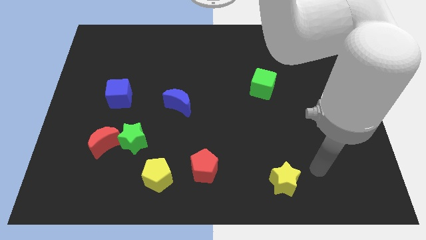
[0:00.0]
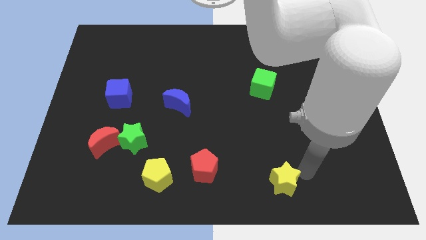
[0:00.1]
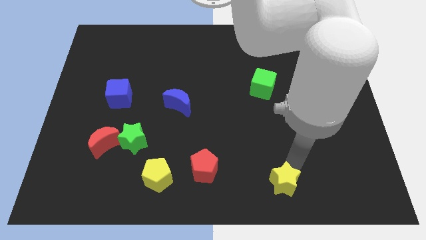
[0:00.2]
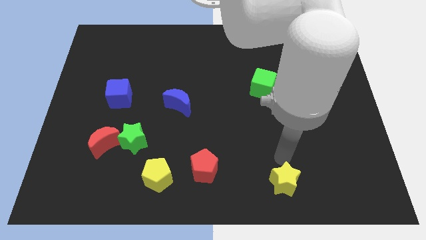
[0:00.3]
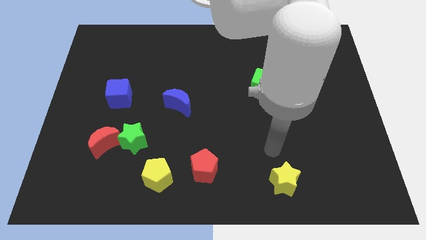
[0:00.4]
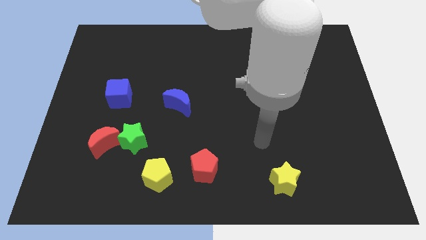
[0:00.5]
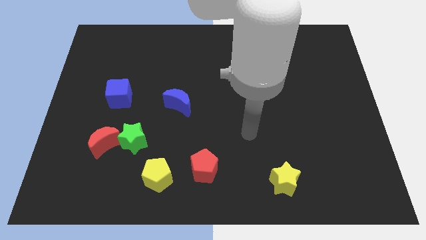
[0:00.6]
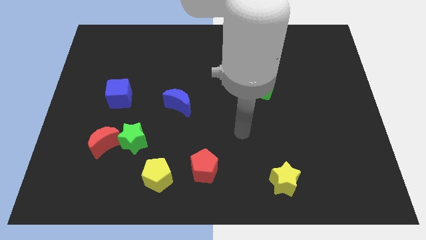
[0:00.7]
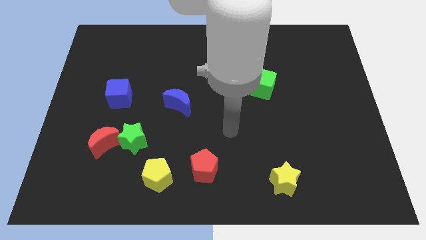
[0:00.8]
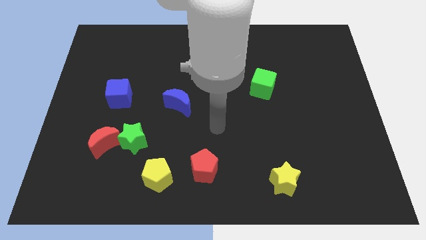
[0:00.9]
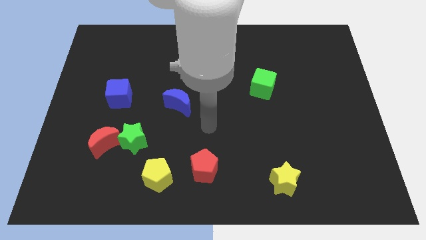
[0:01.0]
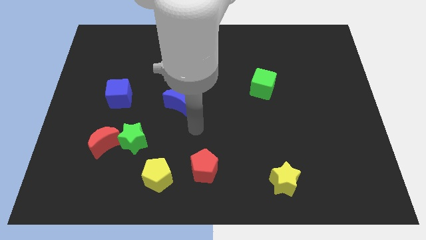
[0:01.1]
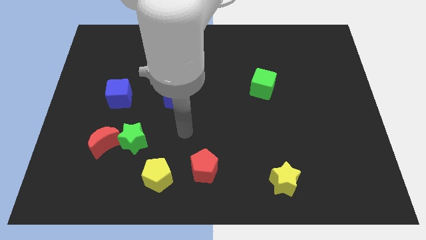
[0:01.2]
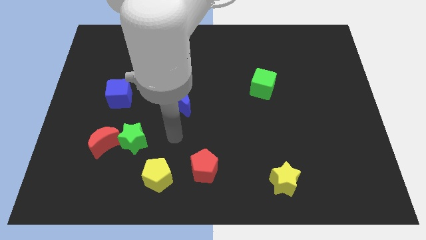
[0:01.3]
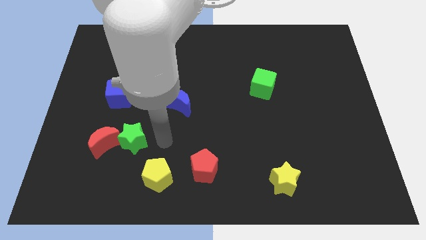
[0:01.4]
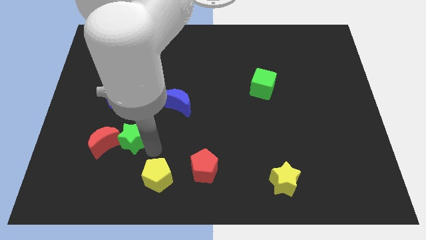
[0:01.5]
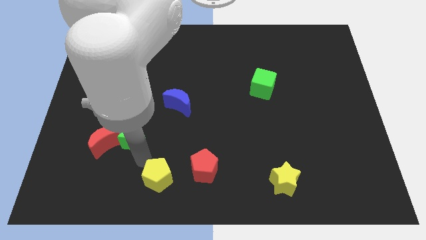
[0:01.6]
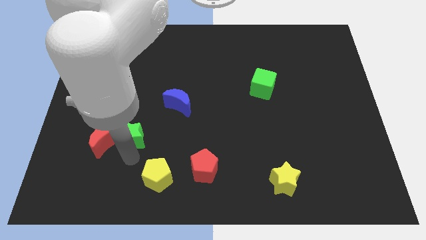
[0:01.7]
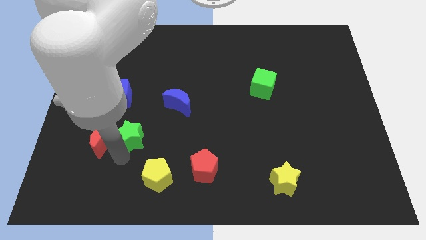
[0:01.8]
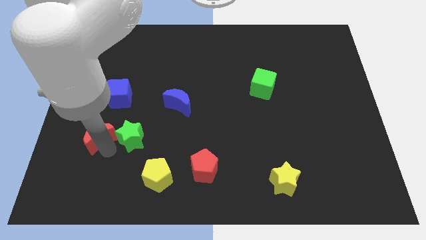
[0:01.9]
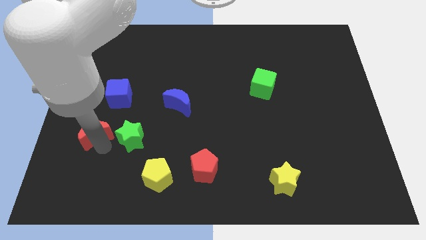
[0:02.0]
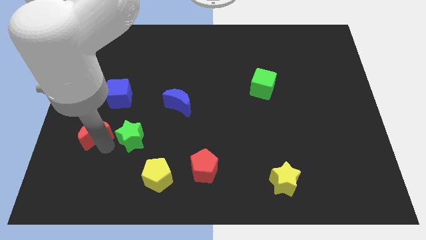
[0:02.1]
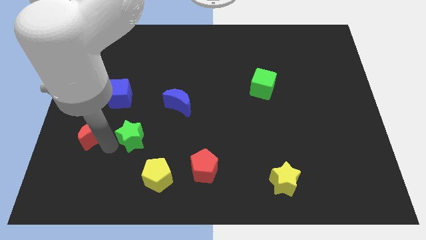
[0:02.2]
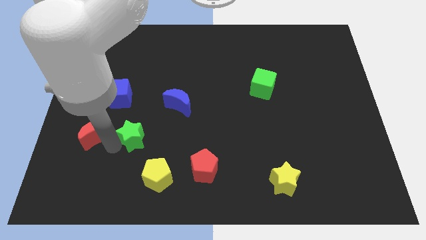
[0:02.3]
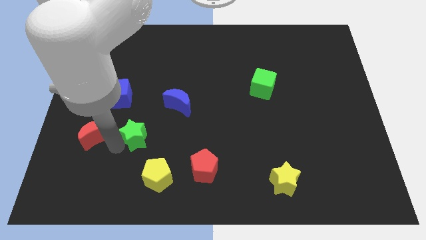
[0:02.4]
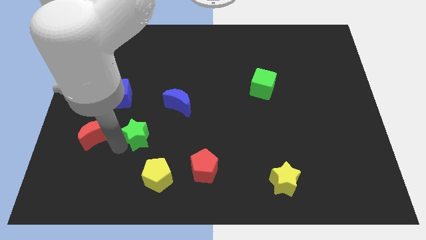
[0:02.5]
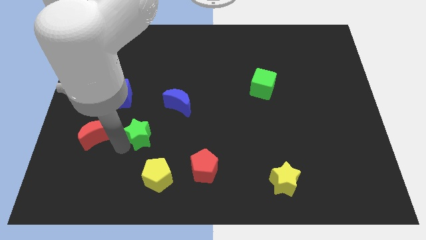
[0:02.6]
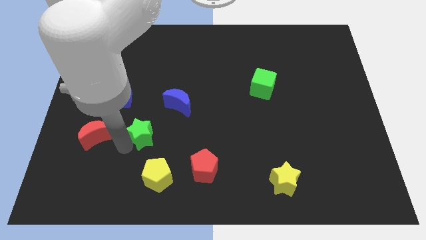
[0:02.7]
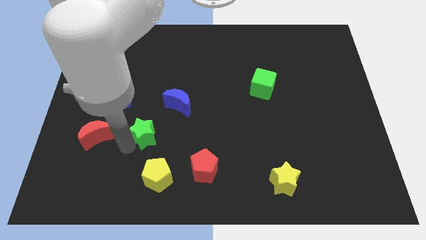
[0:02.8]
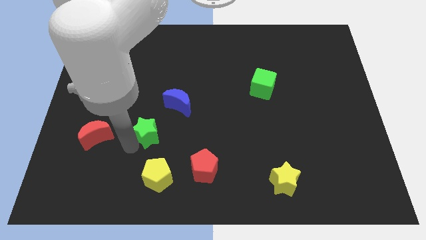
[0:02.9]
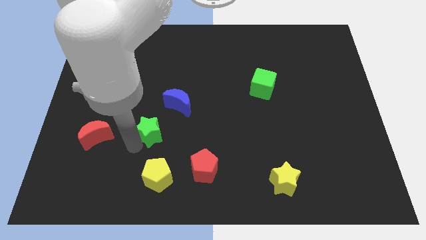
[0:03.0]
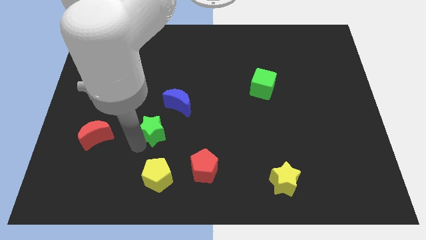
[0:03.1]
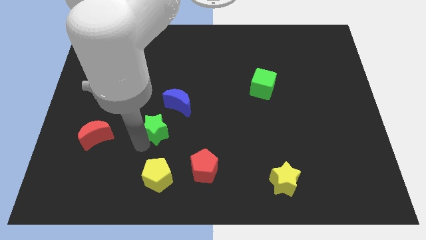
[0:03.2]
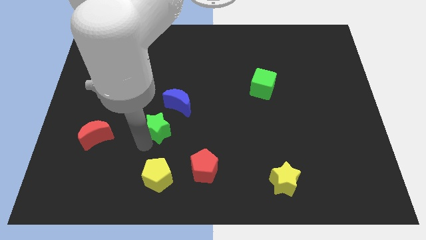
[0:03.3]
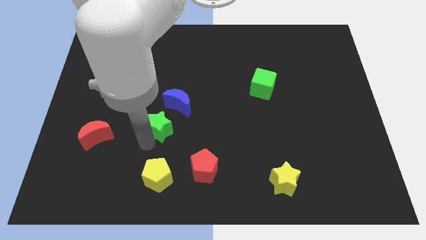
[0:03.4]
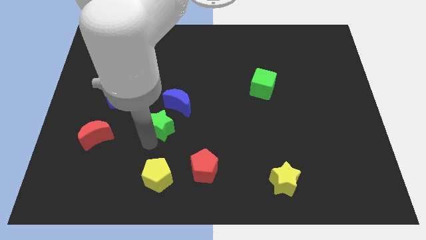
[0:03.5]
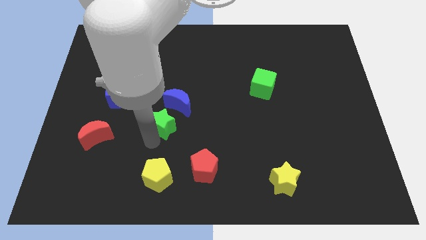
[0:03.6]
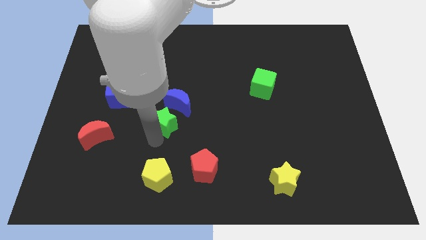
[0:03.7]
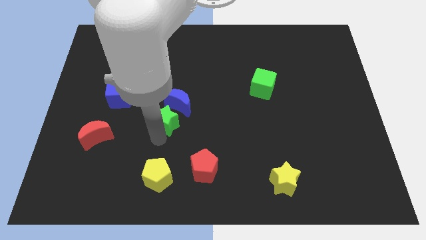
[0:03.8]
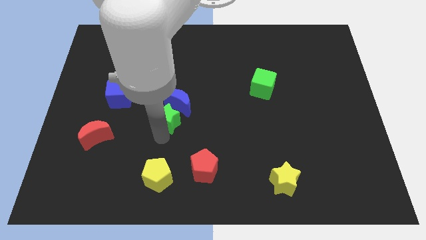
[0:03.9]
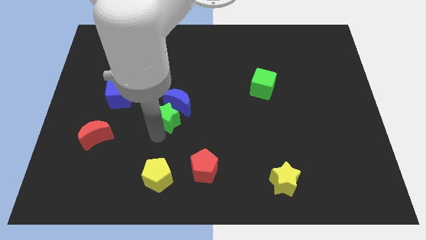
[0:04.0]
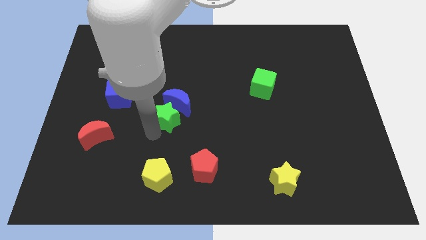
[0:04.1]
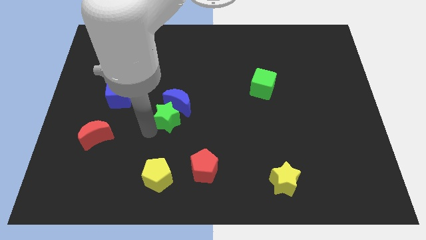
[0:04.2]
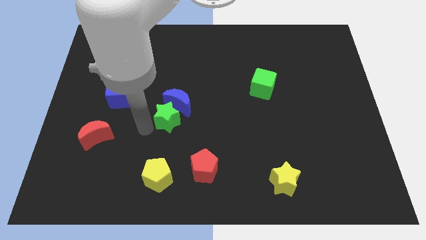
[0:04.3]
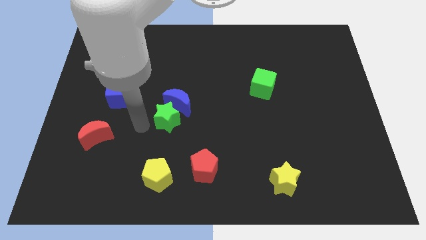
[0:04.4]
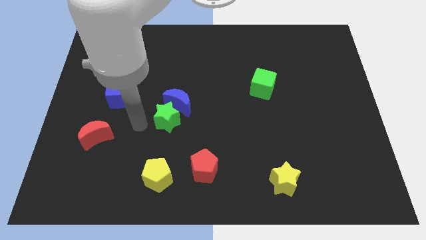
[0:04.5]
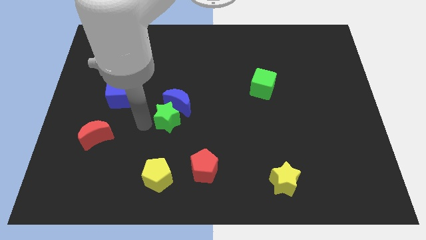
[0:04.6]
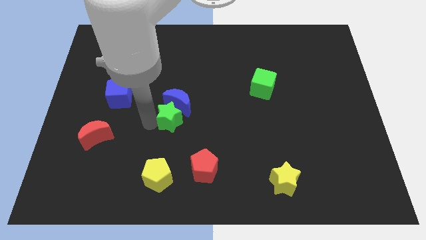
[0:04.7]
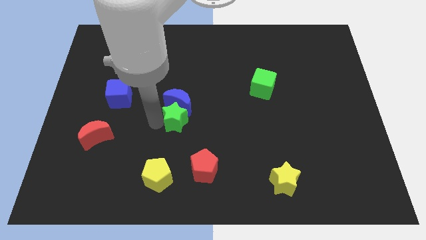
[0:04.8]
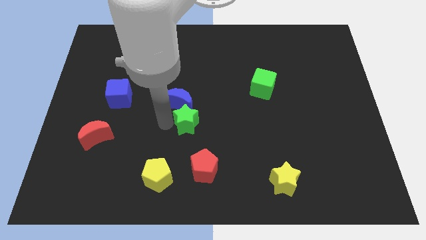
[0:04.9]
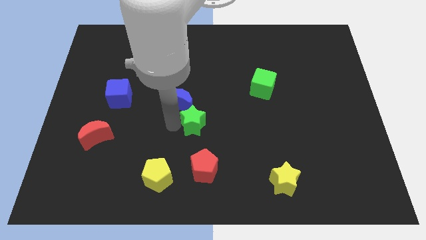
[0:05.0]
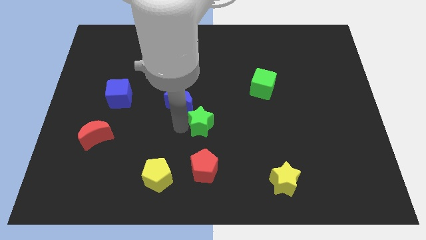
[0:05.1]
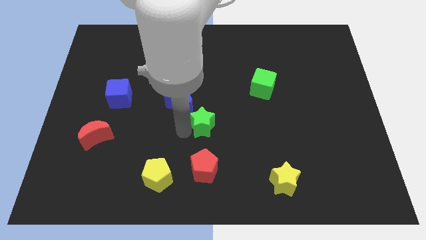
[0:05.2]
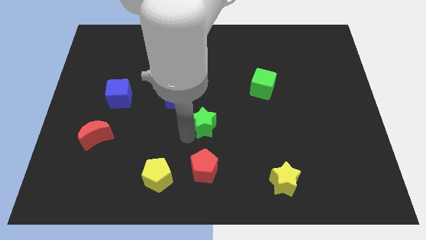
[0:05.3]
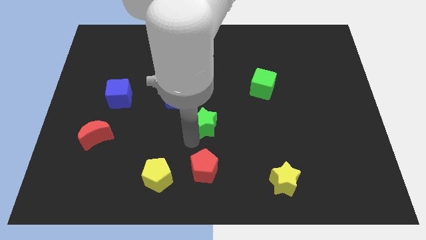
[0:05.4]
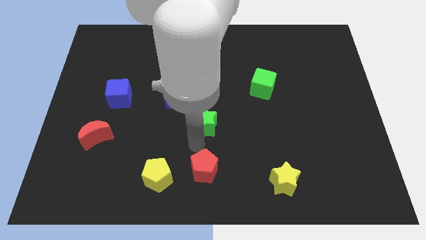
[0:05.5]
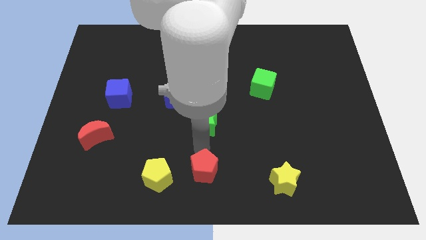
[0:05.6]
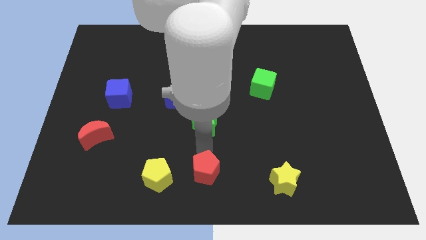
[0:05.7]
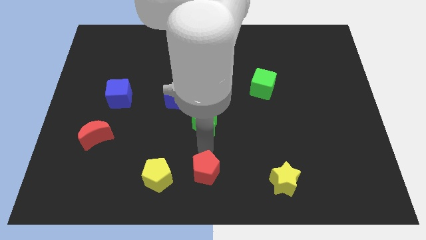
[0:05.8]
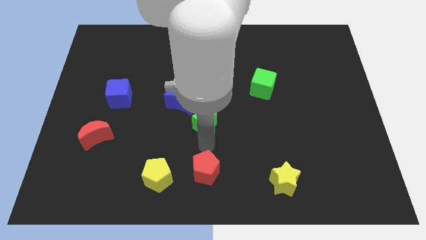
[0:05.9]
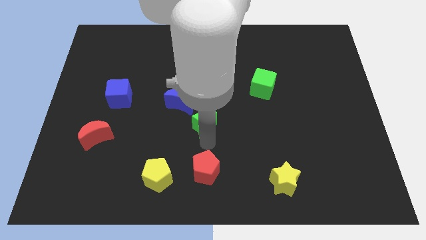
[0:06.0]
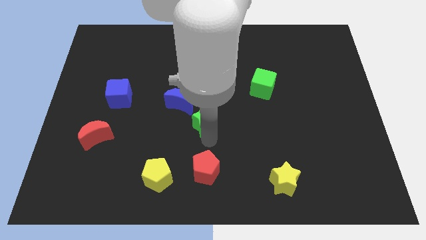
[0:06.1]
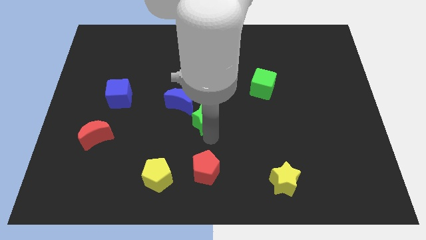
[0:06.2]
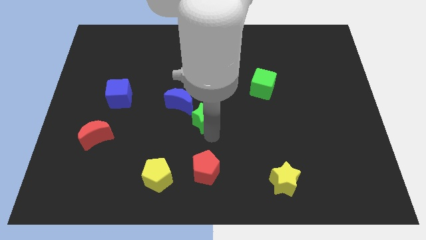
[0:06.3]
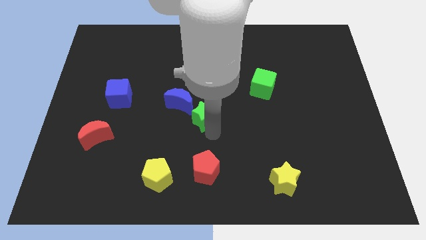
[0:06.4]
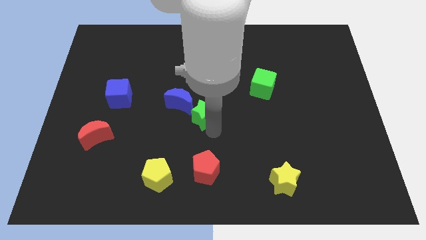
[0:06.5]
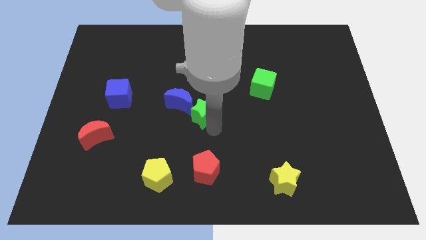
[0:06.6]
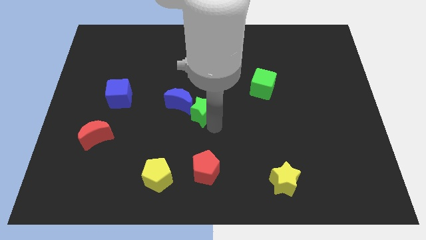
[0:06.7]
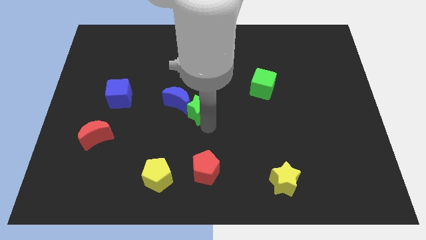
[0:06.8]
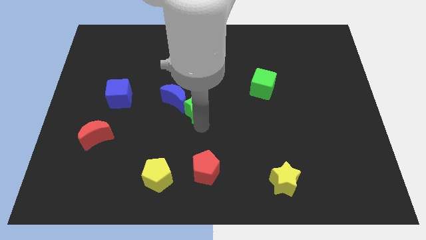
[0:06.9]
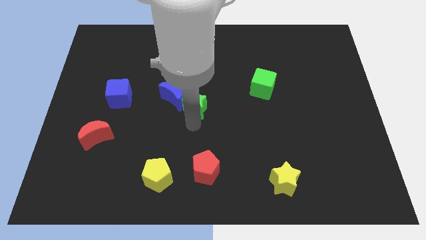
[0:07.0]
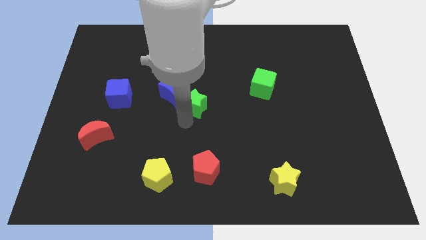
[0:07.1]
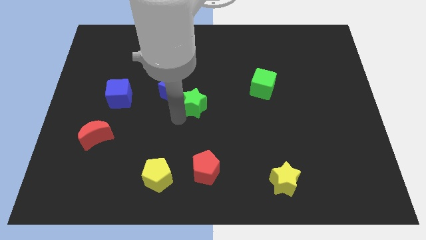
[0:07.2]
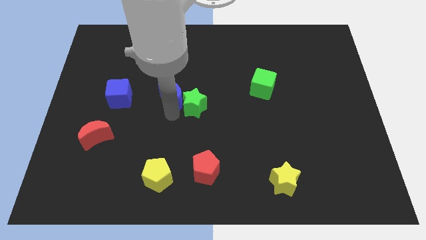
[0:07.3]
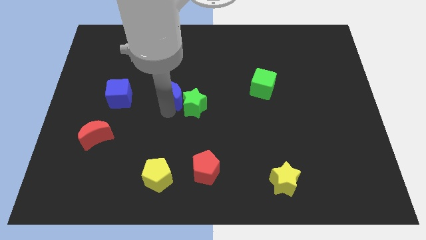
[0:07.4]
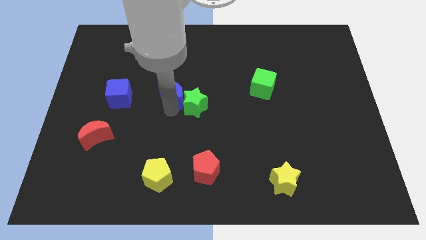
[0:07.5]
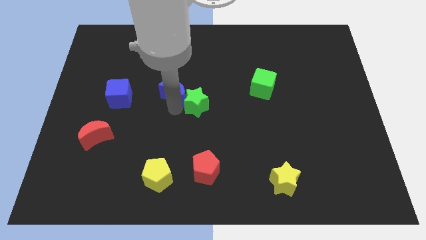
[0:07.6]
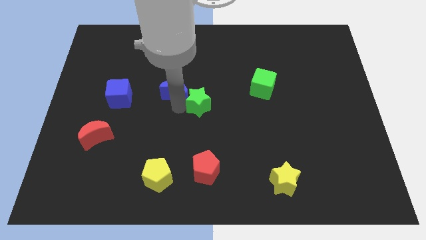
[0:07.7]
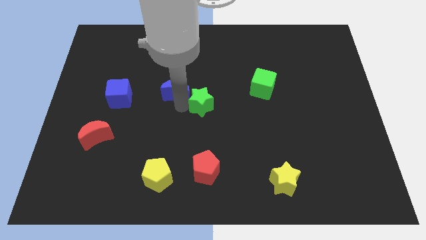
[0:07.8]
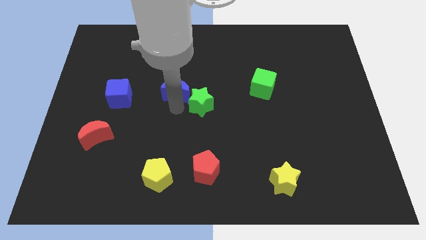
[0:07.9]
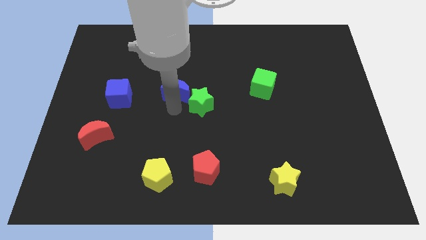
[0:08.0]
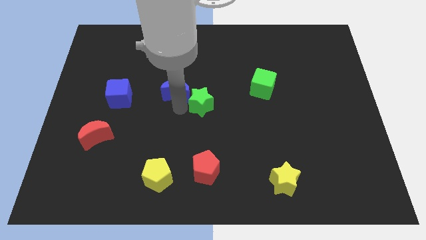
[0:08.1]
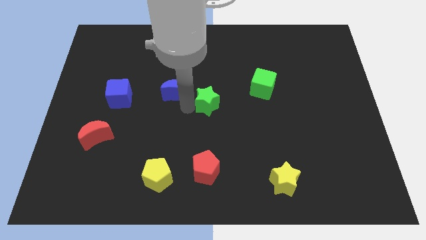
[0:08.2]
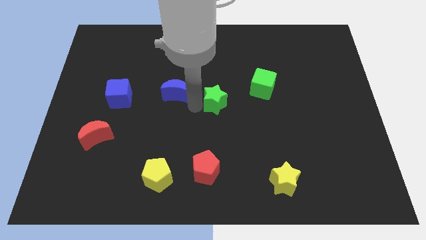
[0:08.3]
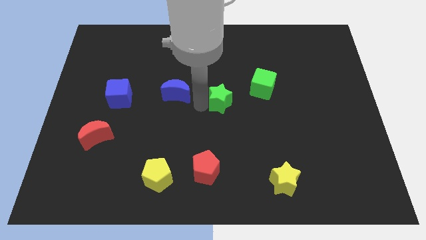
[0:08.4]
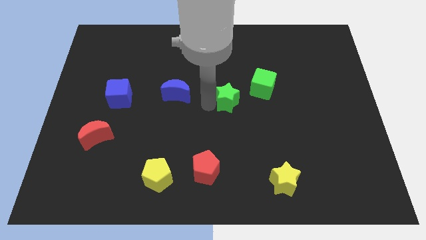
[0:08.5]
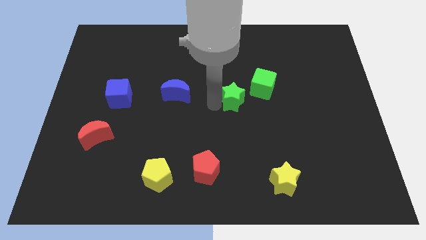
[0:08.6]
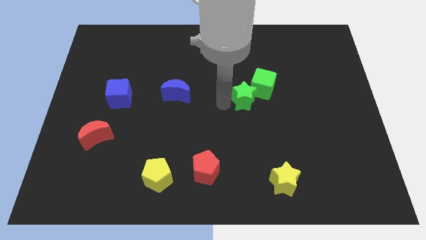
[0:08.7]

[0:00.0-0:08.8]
move the green star close to the green cube
